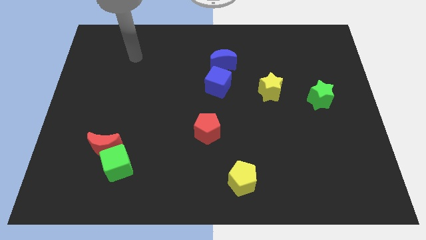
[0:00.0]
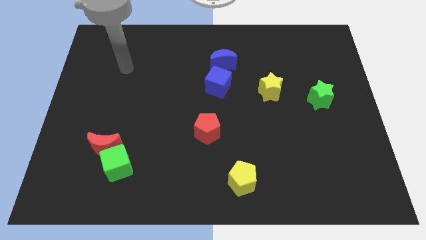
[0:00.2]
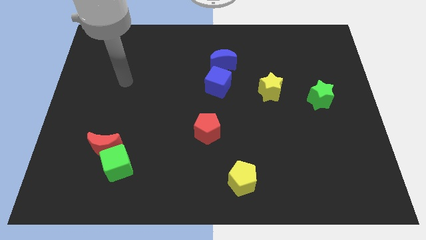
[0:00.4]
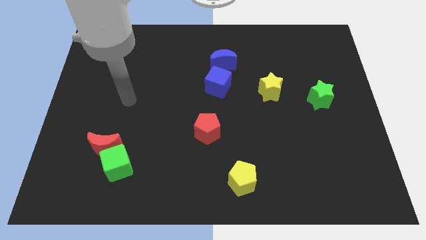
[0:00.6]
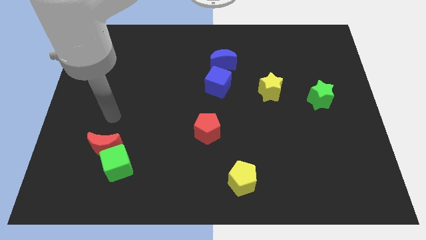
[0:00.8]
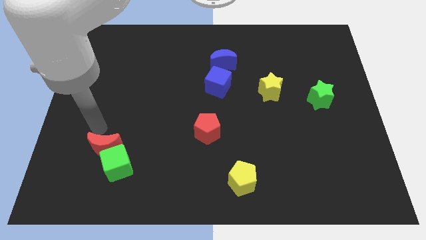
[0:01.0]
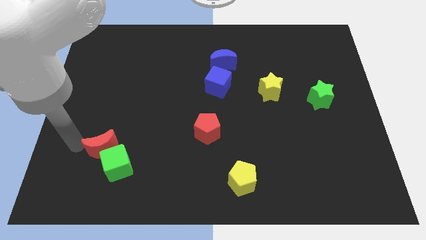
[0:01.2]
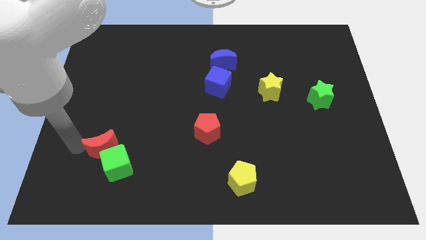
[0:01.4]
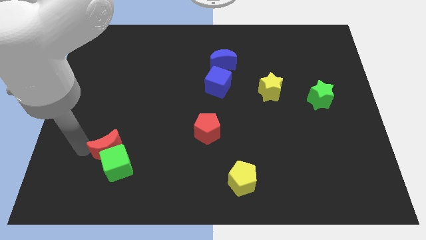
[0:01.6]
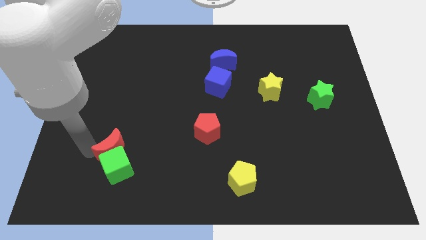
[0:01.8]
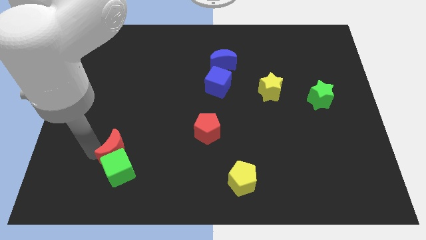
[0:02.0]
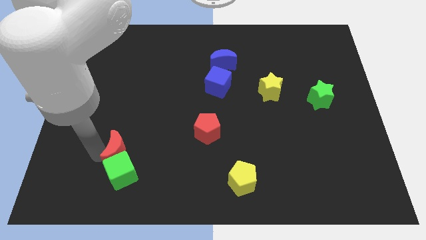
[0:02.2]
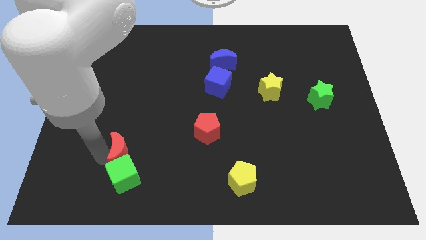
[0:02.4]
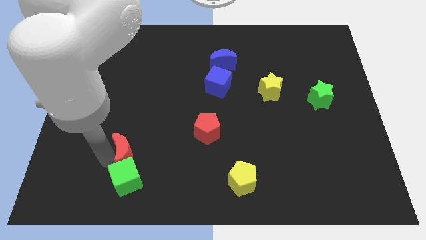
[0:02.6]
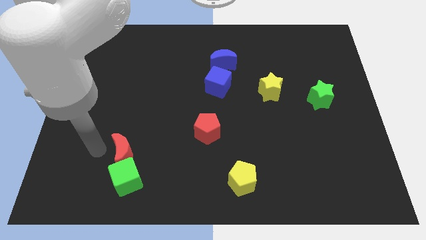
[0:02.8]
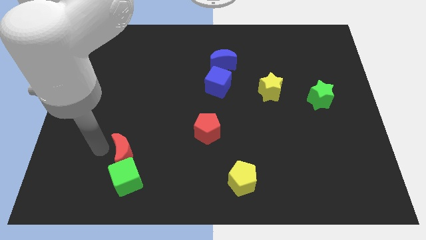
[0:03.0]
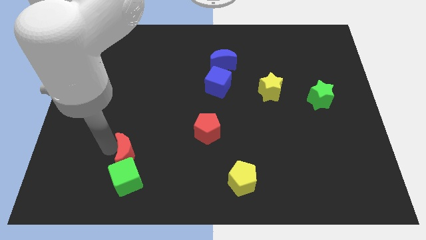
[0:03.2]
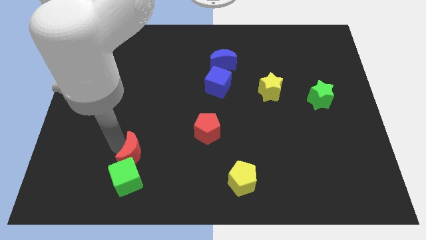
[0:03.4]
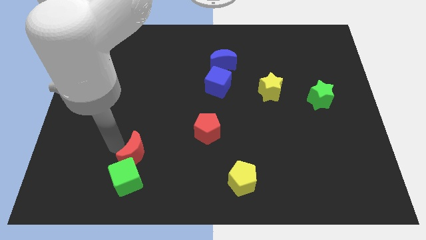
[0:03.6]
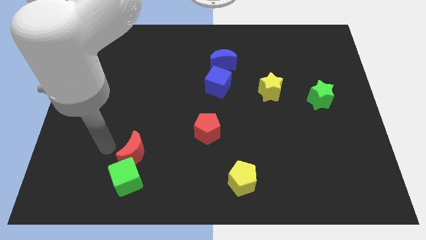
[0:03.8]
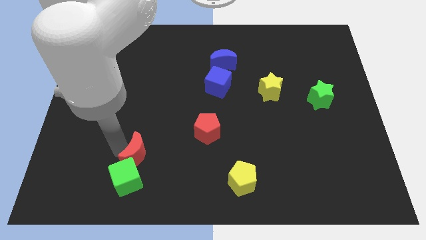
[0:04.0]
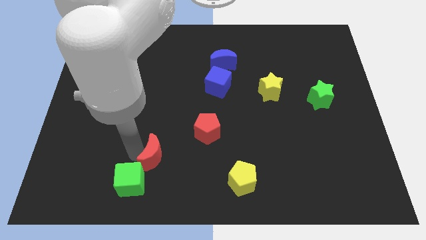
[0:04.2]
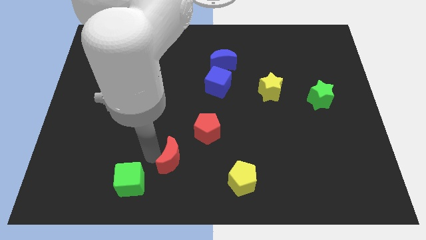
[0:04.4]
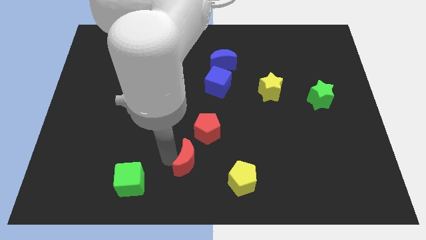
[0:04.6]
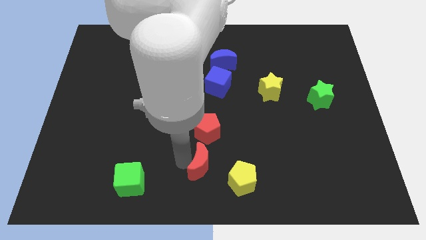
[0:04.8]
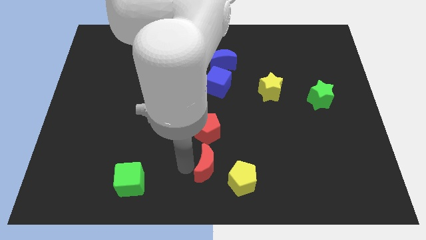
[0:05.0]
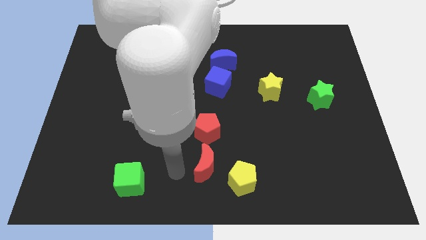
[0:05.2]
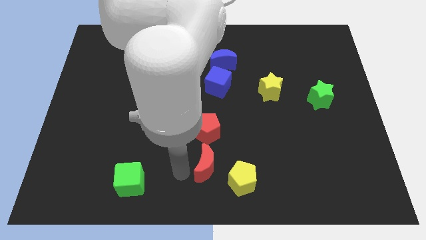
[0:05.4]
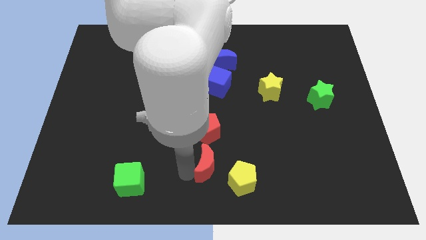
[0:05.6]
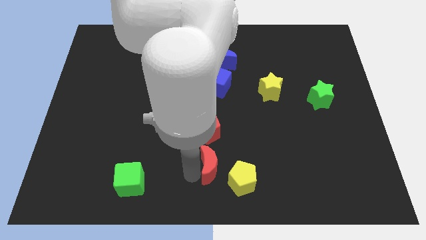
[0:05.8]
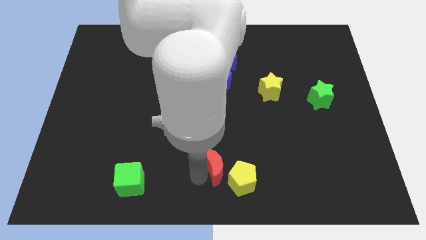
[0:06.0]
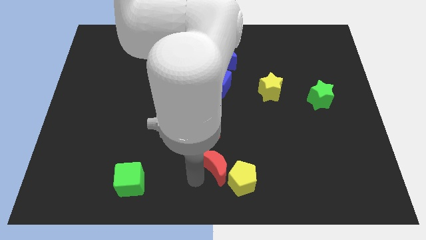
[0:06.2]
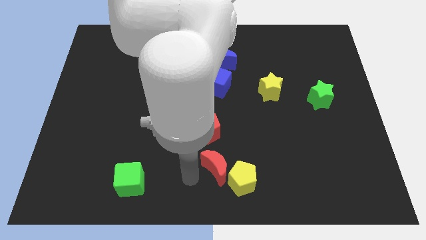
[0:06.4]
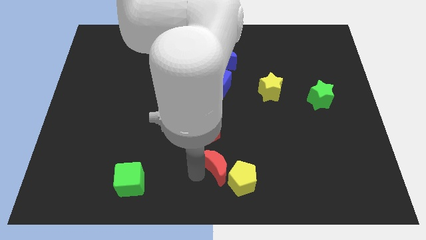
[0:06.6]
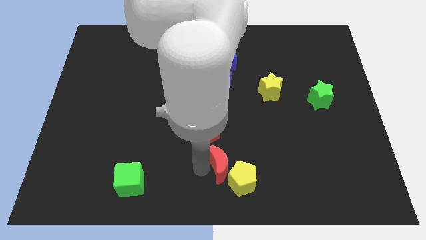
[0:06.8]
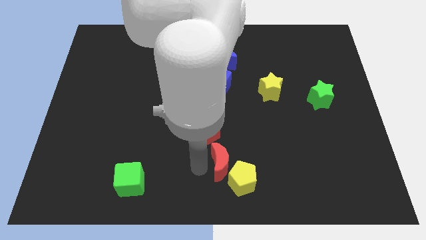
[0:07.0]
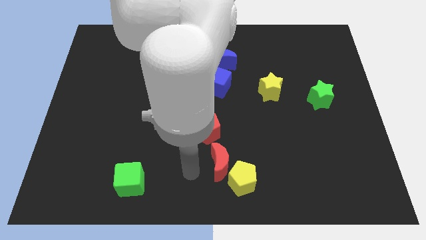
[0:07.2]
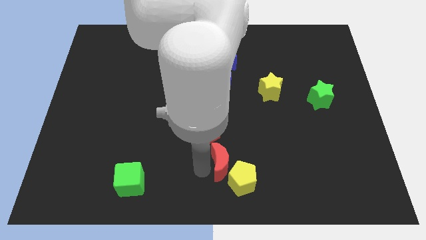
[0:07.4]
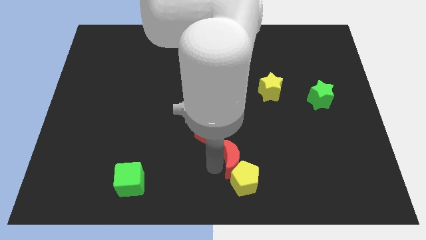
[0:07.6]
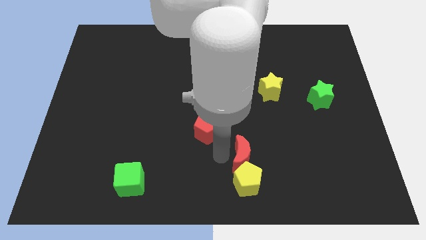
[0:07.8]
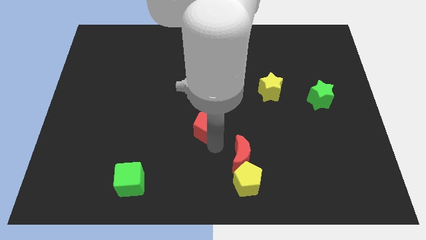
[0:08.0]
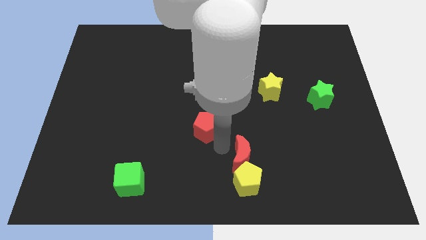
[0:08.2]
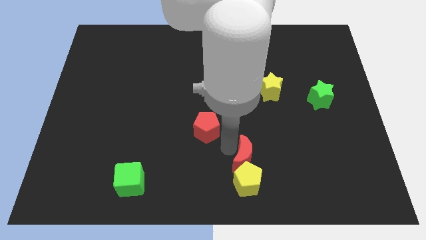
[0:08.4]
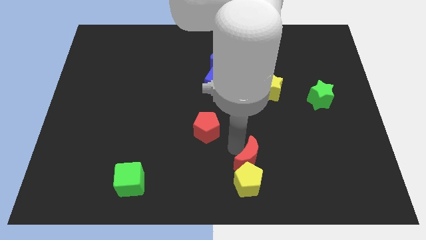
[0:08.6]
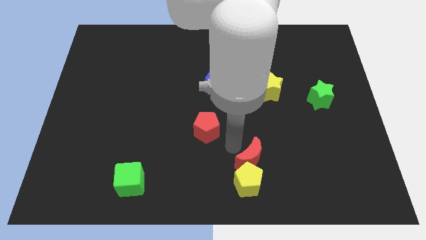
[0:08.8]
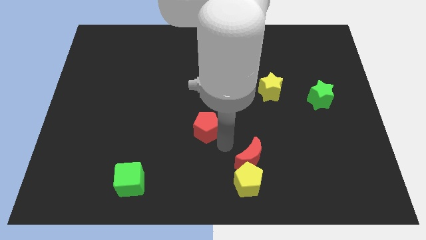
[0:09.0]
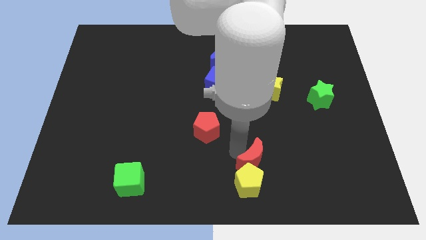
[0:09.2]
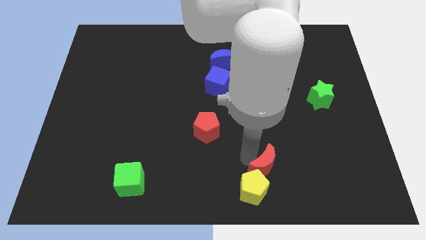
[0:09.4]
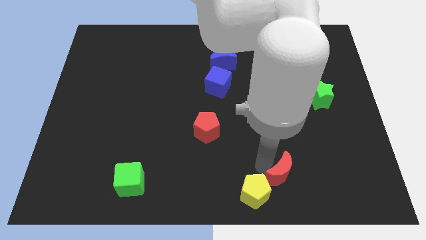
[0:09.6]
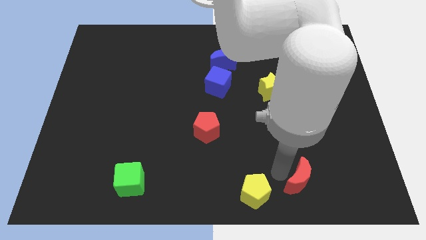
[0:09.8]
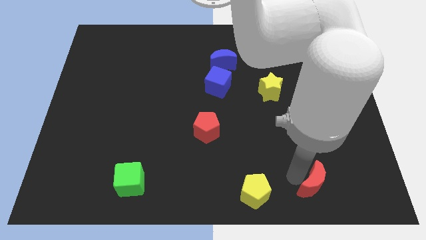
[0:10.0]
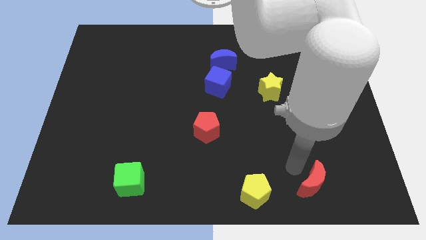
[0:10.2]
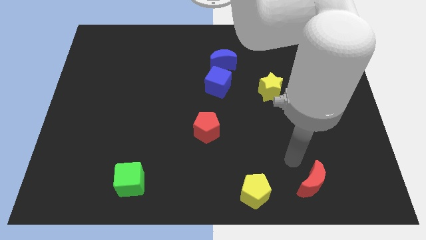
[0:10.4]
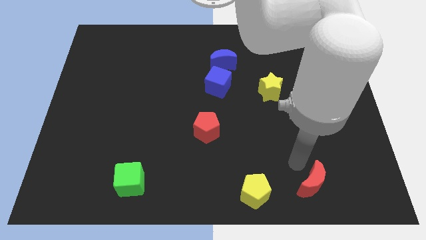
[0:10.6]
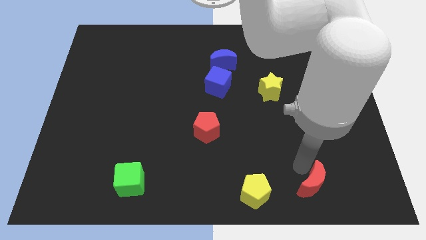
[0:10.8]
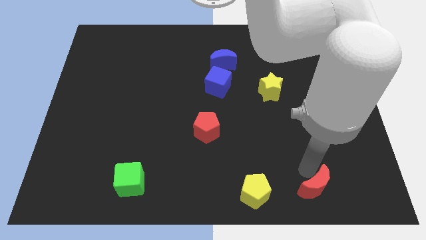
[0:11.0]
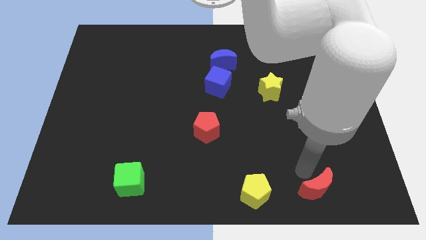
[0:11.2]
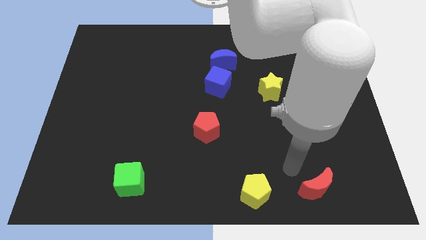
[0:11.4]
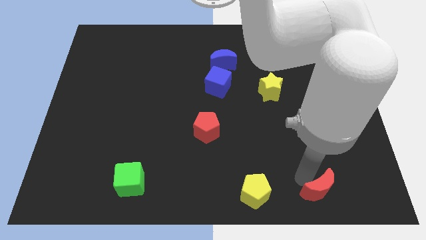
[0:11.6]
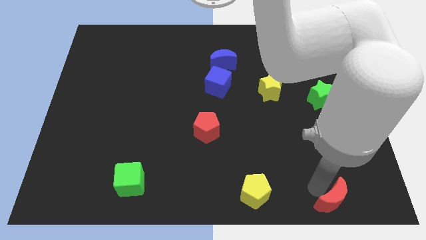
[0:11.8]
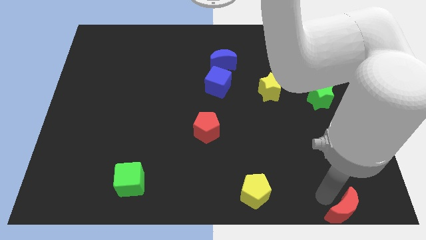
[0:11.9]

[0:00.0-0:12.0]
put the red moon to the bottom right

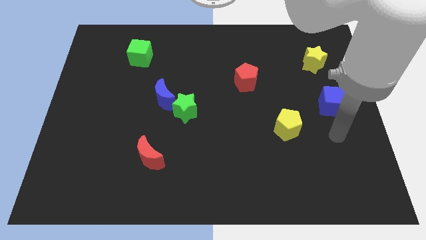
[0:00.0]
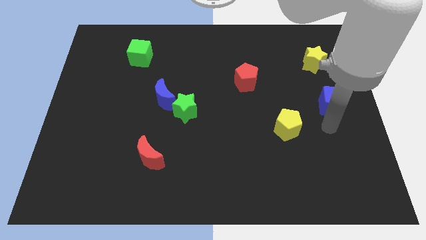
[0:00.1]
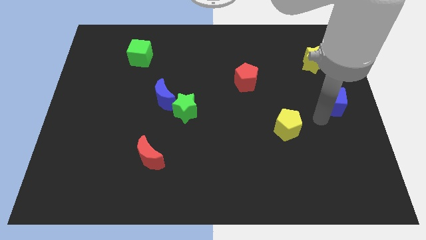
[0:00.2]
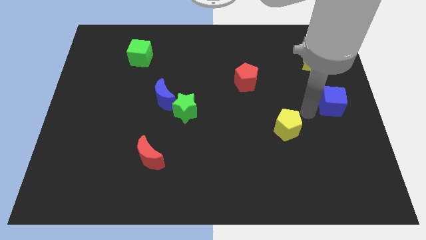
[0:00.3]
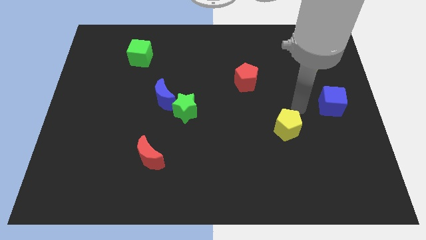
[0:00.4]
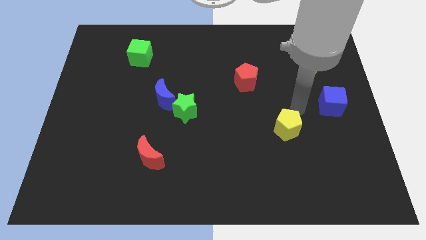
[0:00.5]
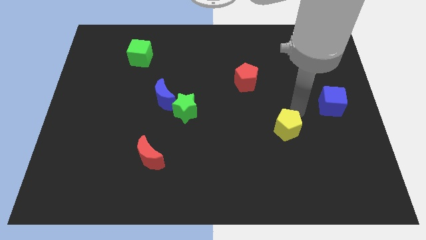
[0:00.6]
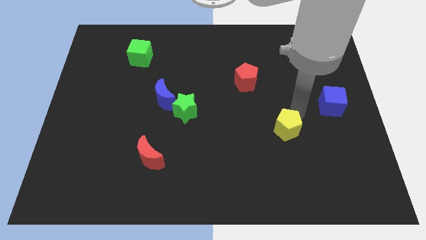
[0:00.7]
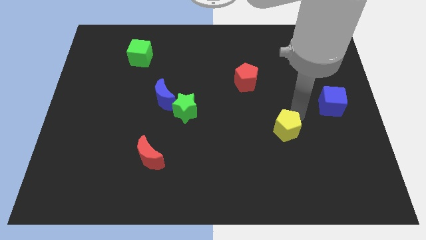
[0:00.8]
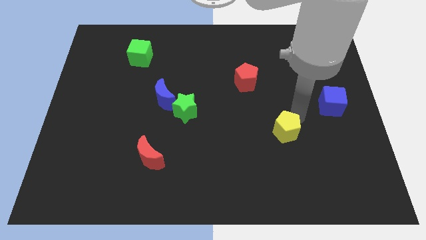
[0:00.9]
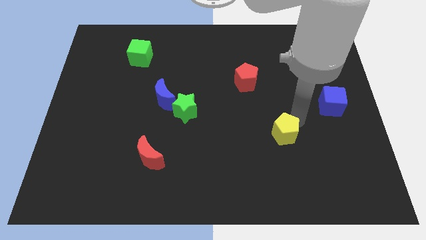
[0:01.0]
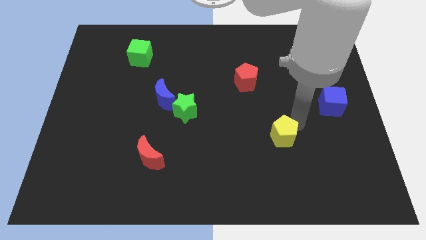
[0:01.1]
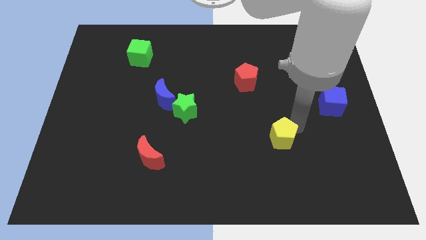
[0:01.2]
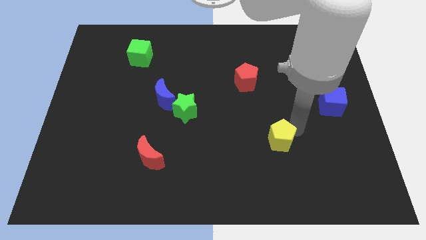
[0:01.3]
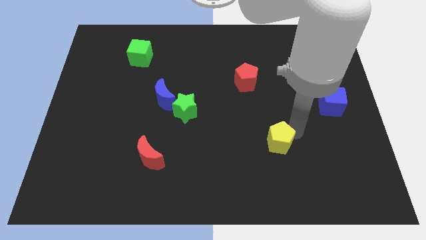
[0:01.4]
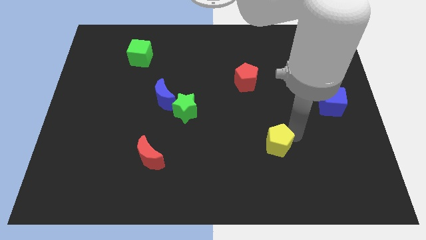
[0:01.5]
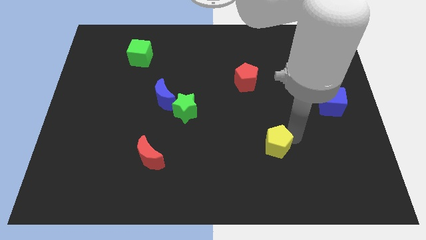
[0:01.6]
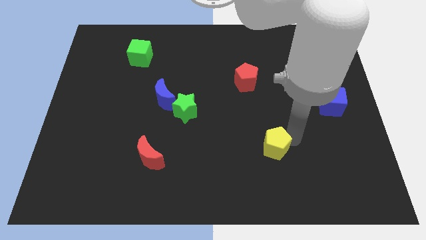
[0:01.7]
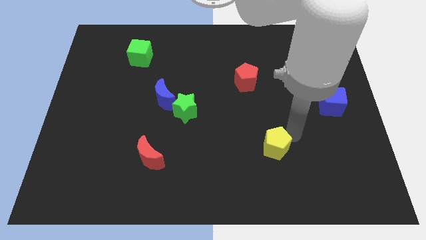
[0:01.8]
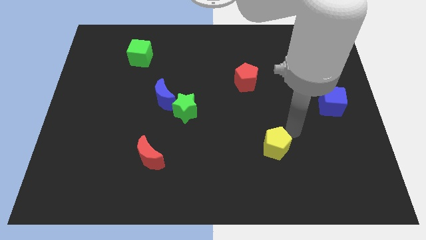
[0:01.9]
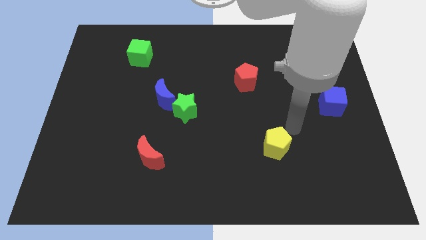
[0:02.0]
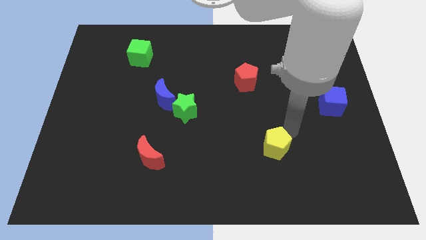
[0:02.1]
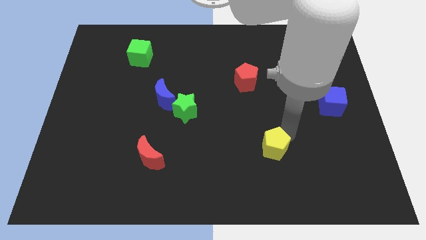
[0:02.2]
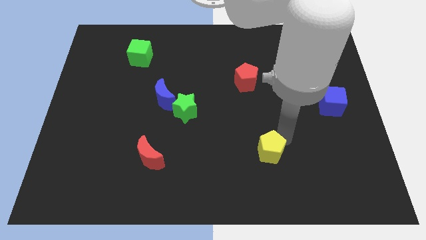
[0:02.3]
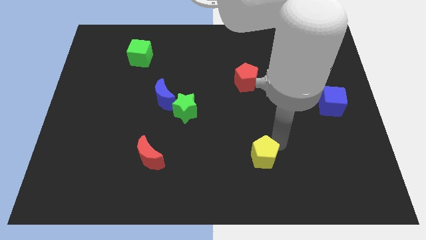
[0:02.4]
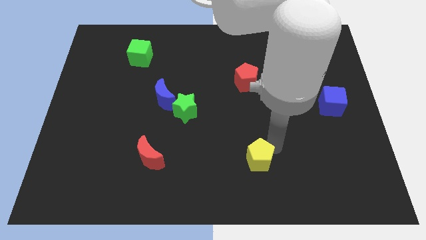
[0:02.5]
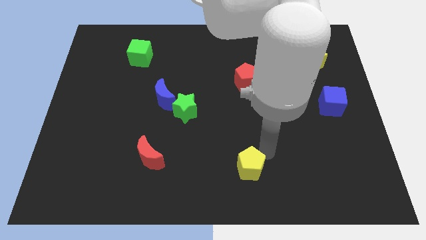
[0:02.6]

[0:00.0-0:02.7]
slide the yellow pentagon to the bottom
